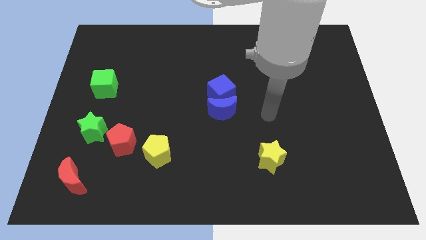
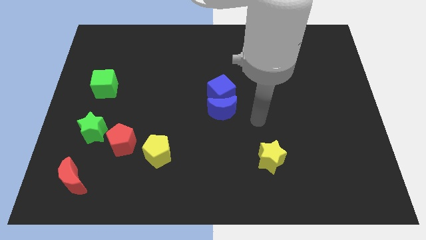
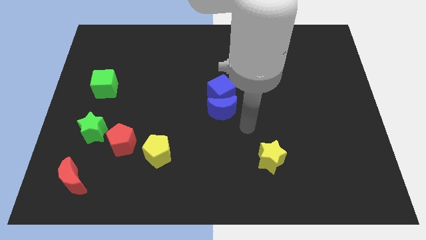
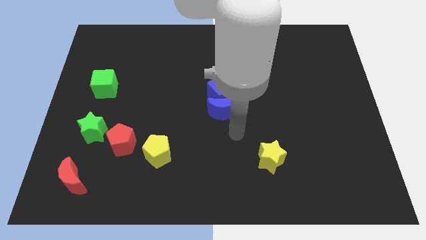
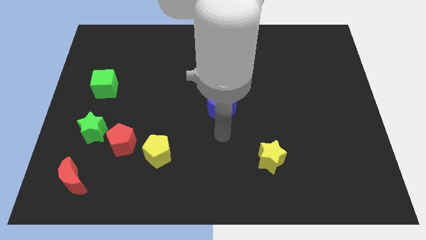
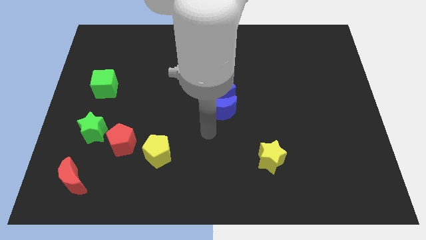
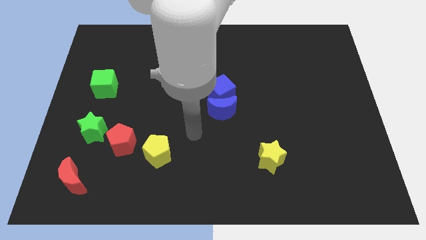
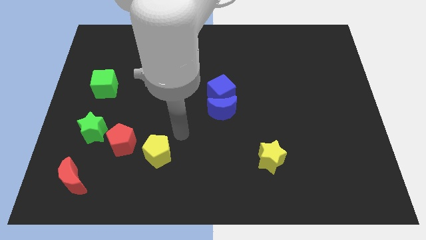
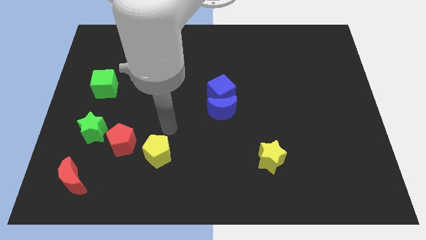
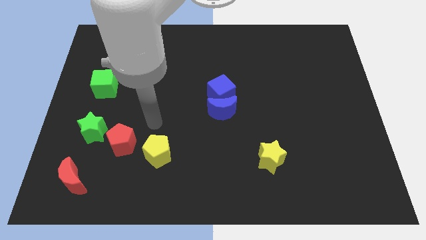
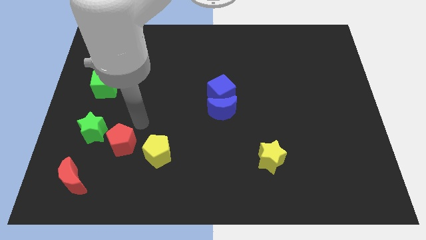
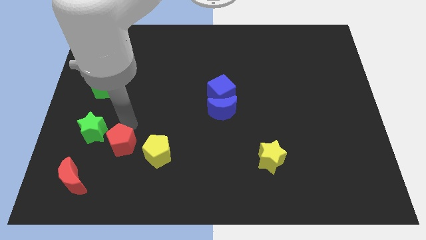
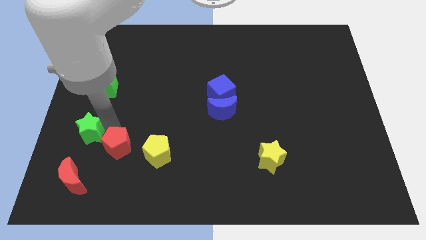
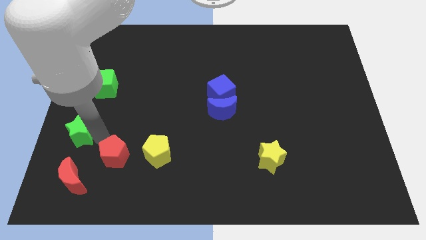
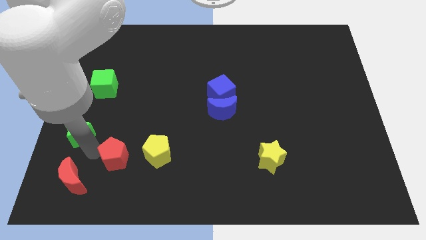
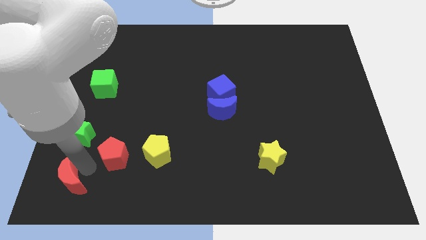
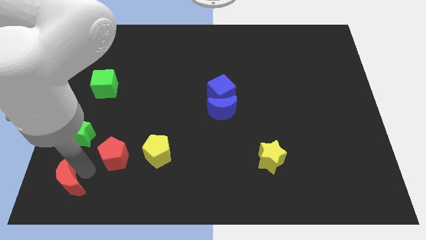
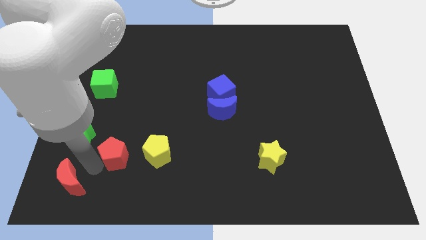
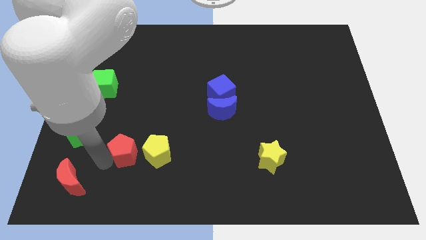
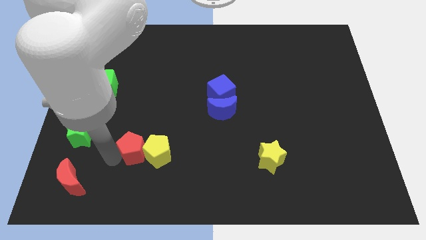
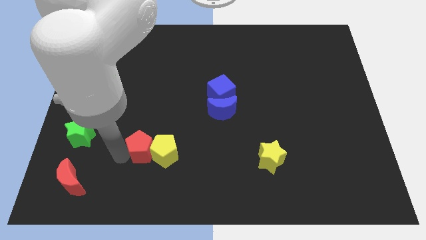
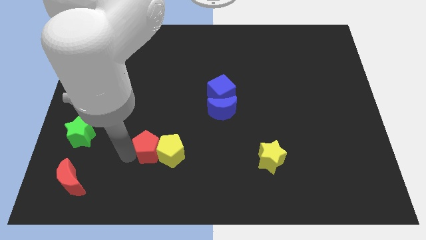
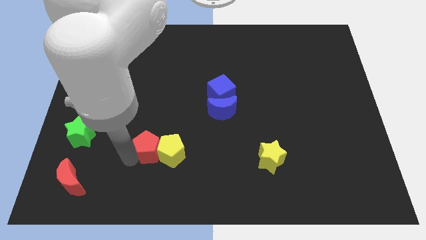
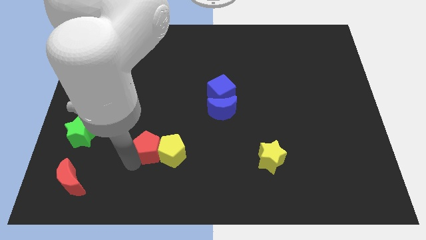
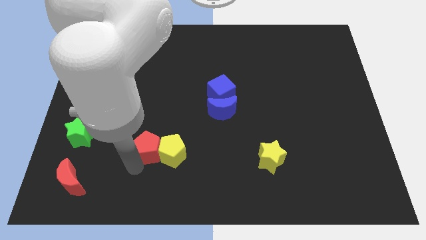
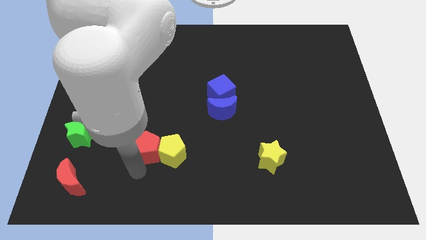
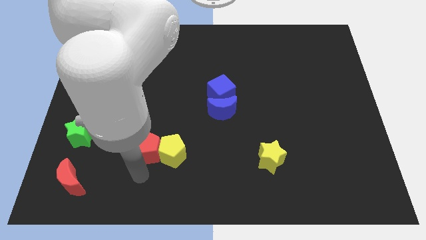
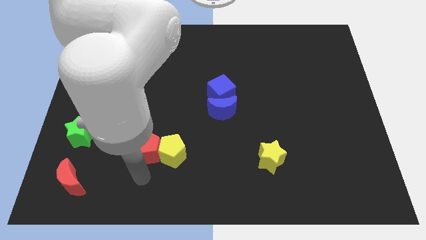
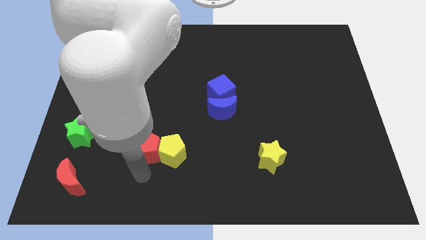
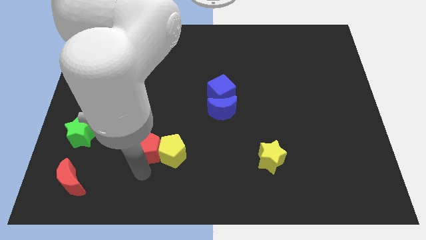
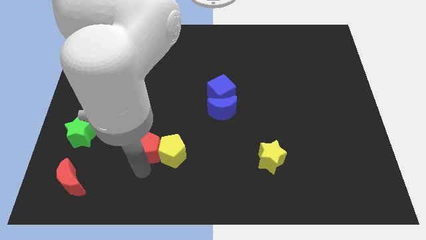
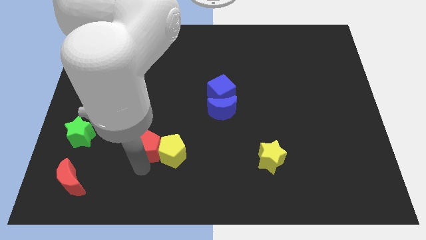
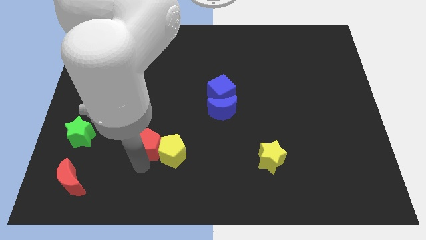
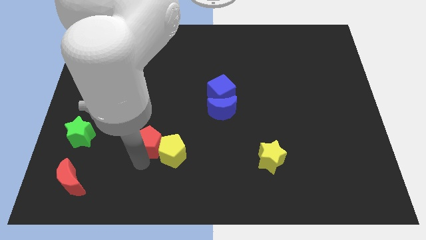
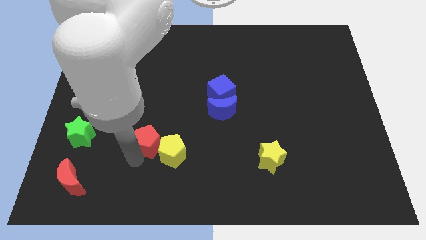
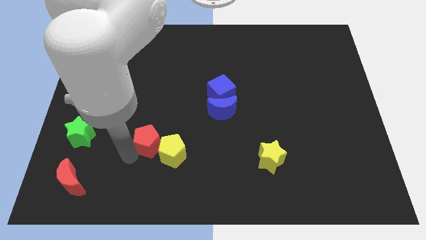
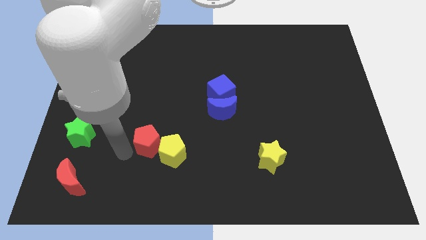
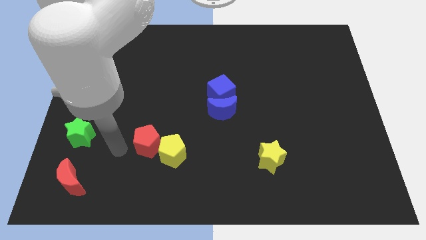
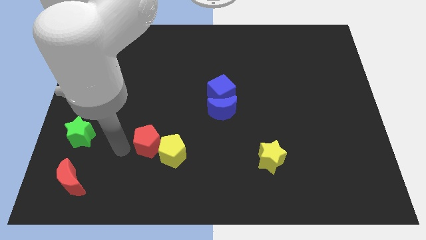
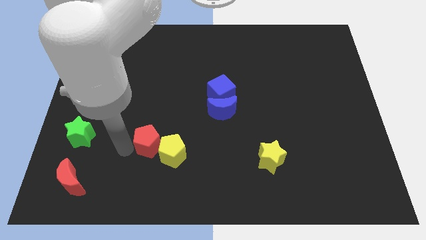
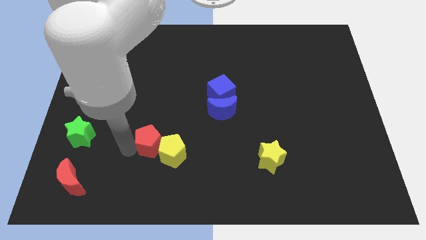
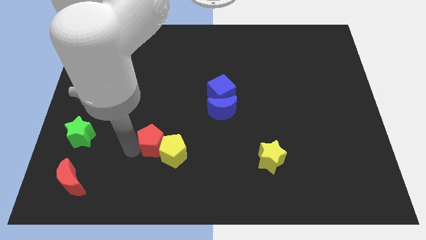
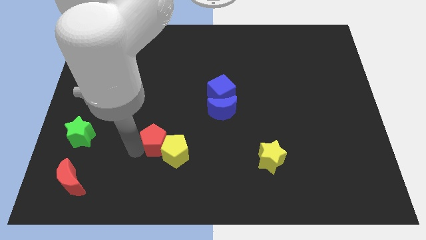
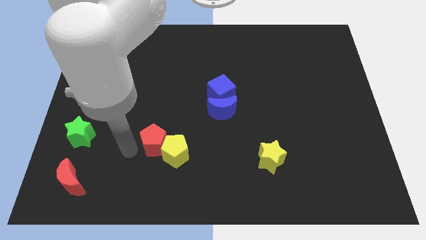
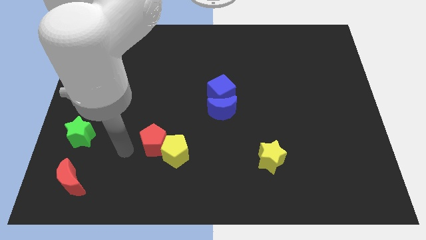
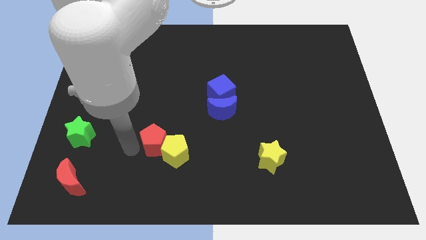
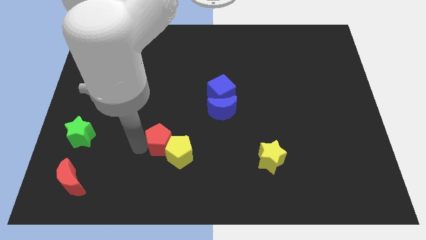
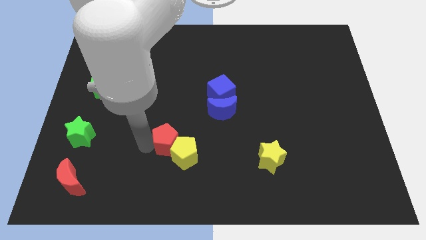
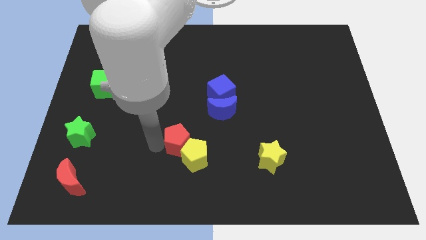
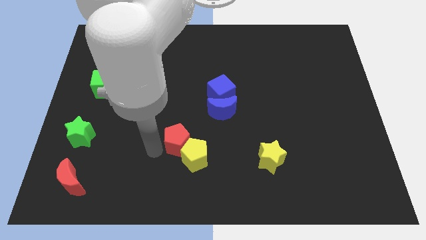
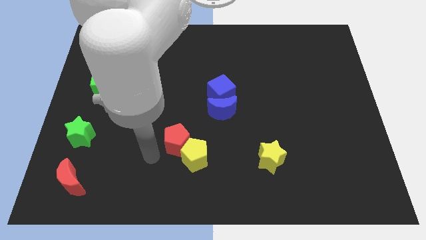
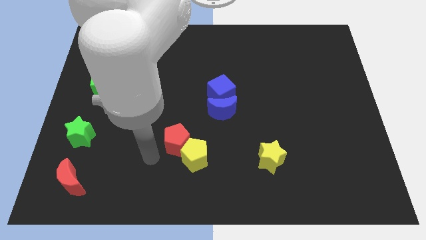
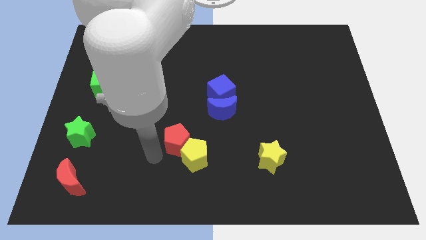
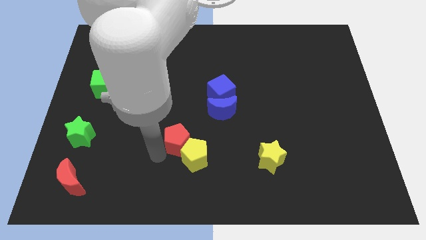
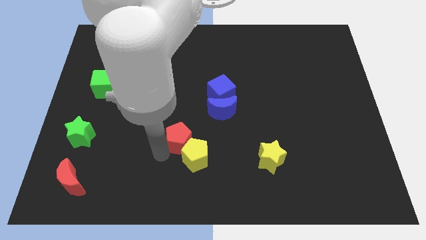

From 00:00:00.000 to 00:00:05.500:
put the red pentagon to the bottom left side of the blue moon

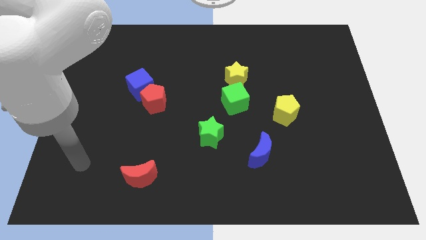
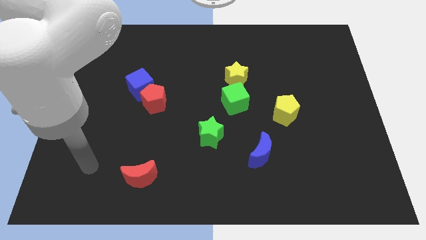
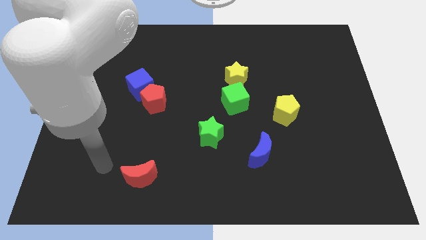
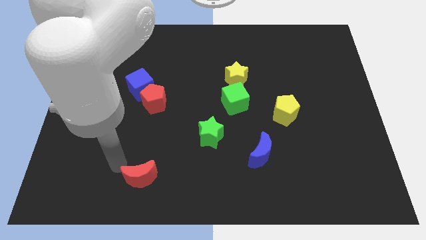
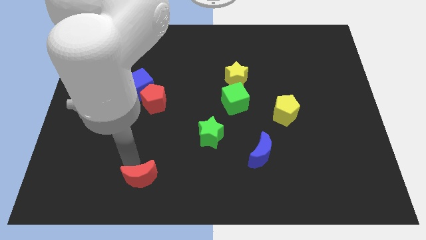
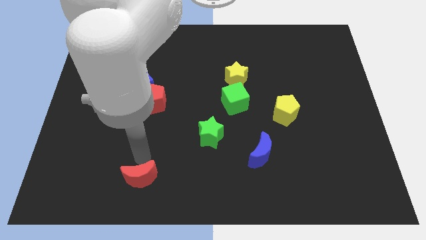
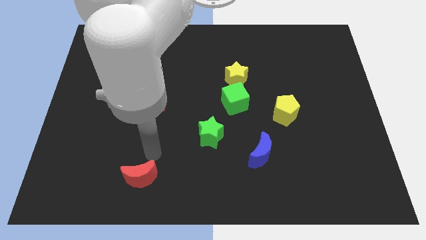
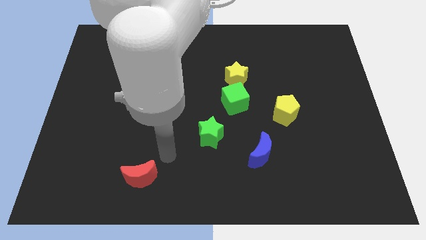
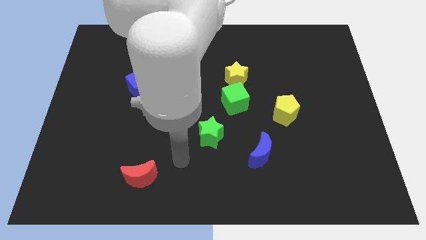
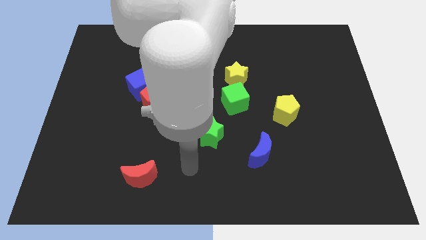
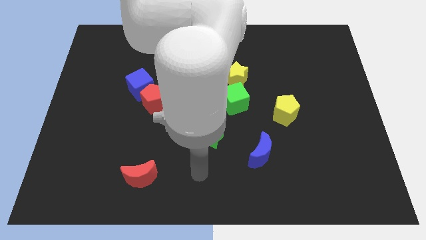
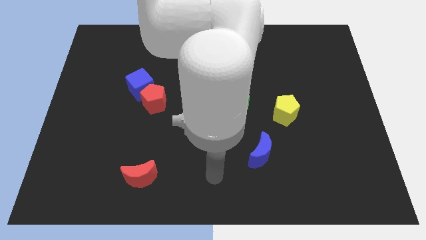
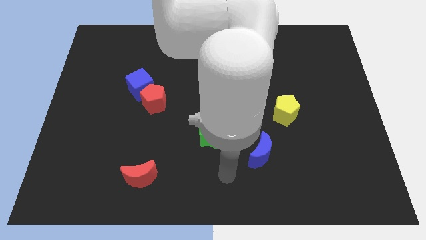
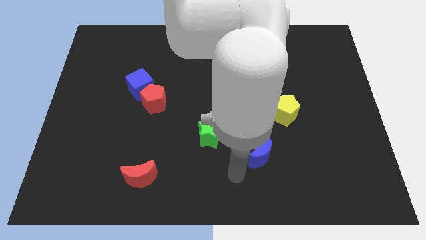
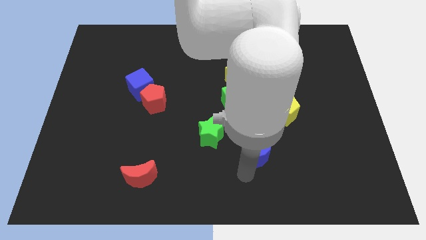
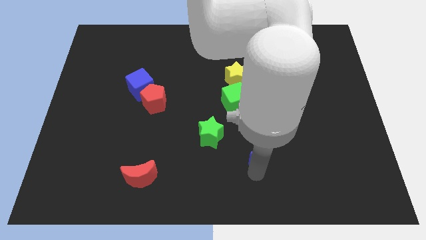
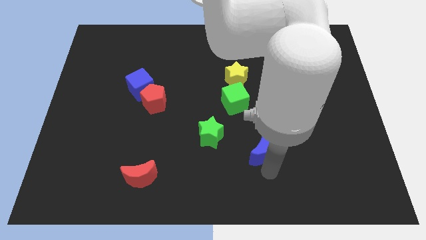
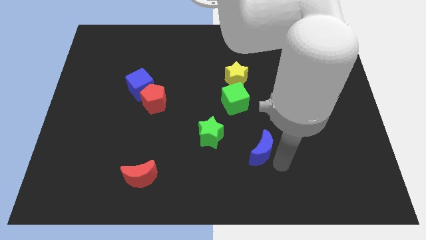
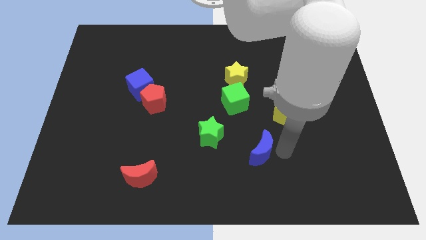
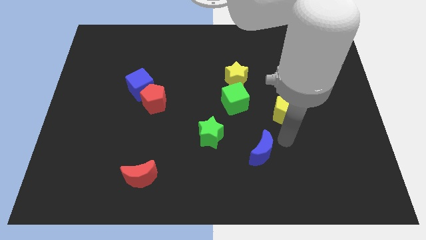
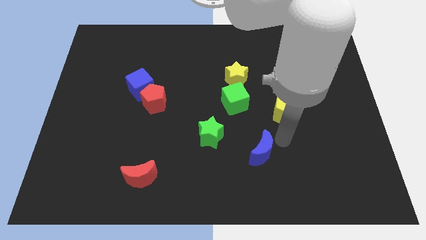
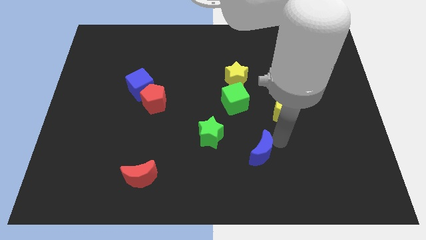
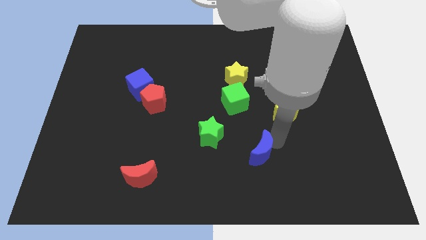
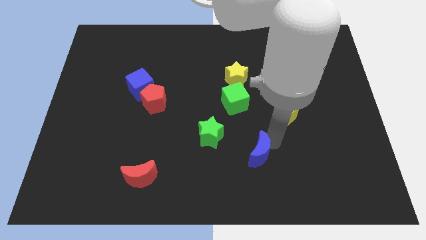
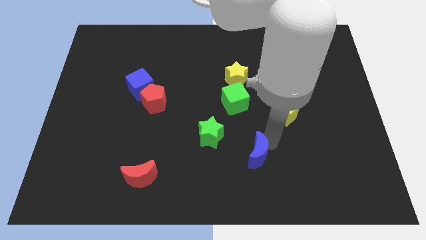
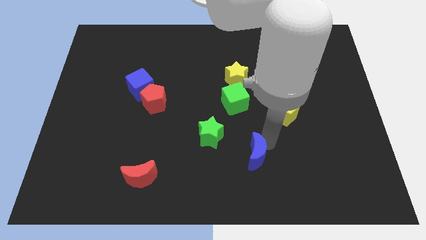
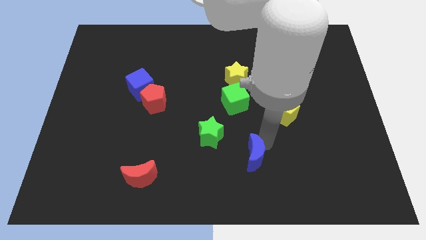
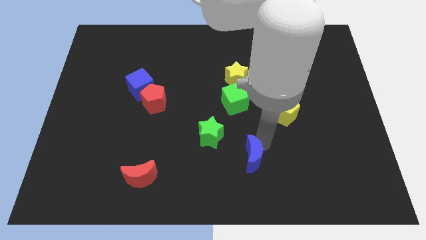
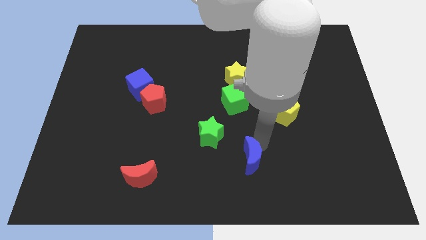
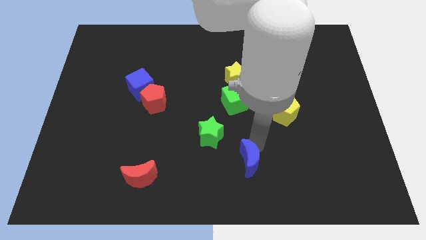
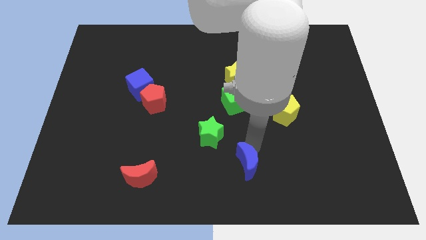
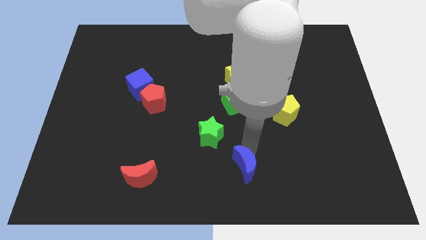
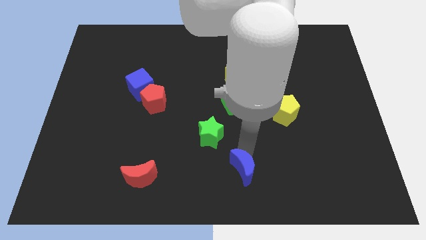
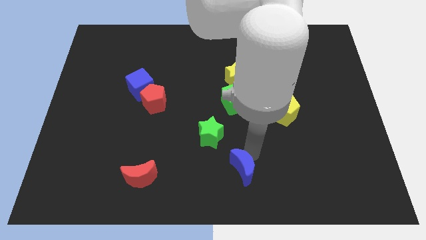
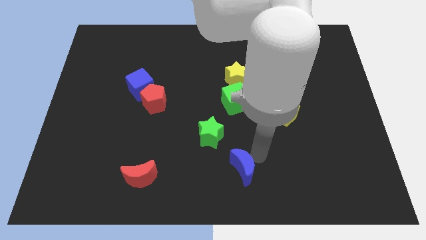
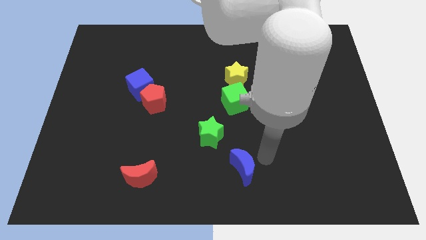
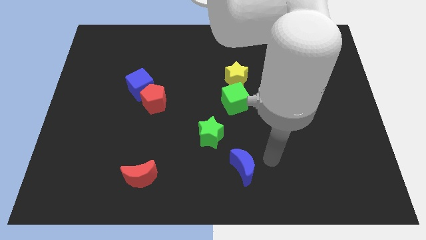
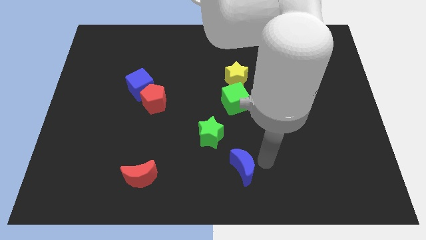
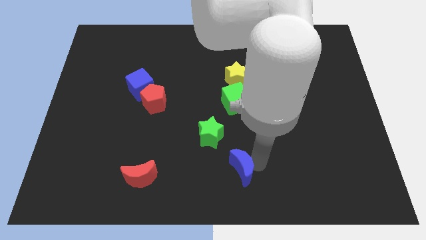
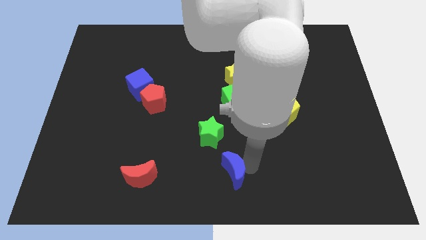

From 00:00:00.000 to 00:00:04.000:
push the blue moon below the green star
